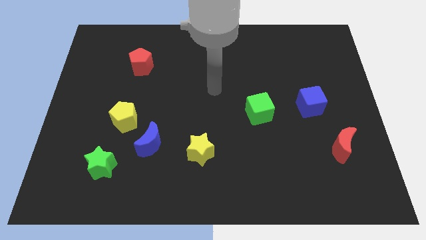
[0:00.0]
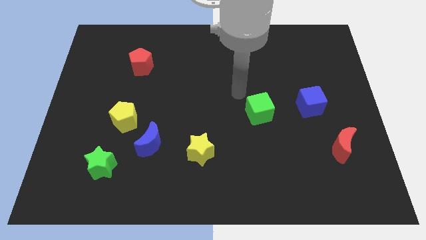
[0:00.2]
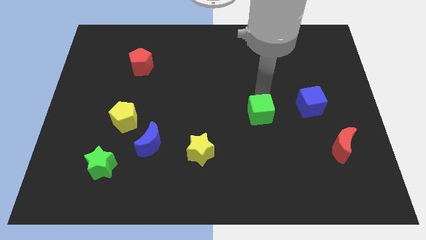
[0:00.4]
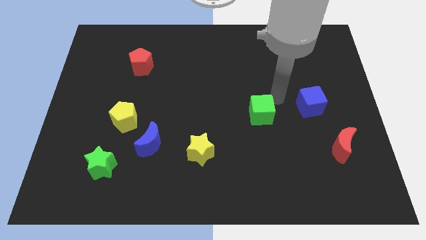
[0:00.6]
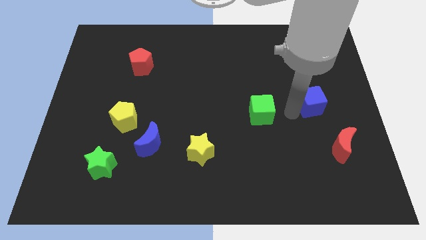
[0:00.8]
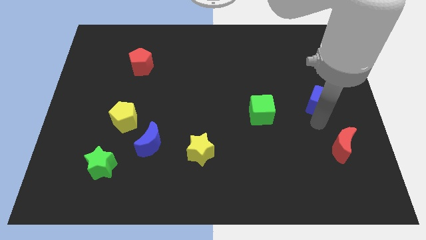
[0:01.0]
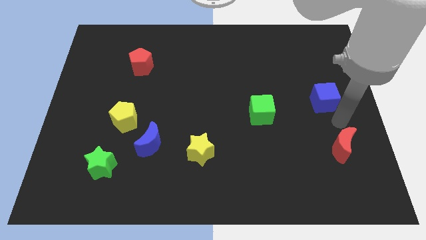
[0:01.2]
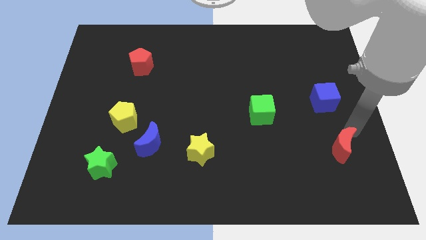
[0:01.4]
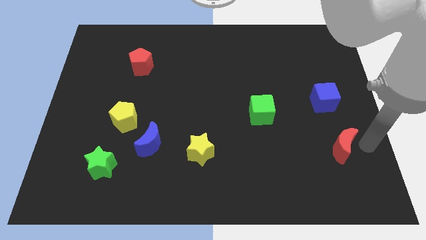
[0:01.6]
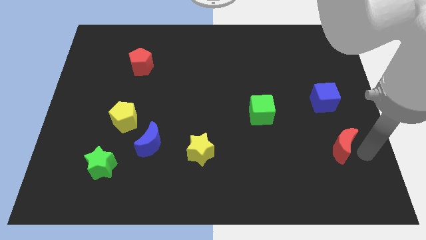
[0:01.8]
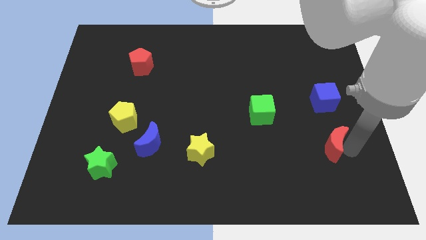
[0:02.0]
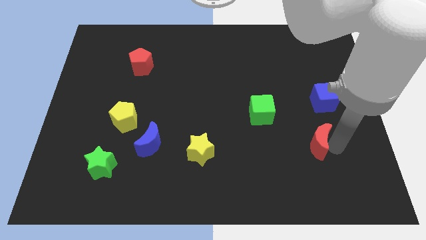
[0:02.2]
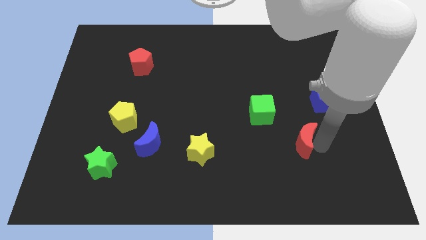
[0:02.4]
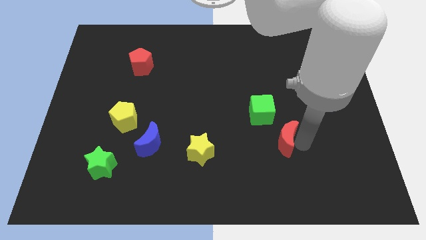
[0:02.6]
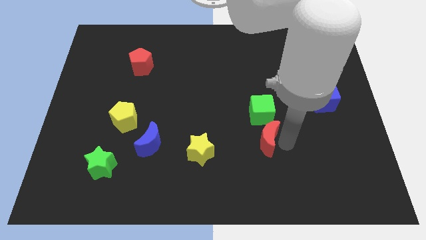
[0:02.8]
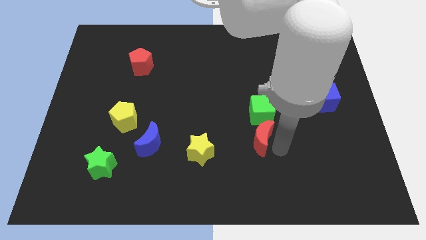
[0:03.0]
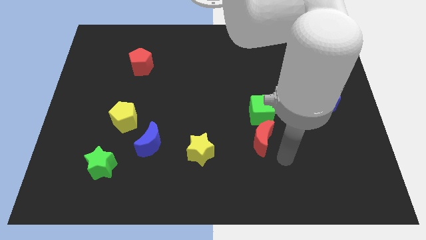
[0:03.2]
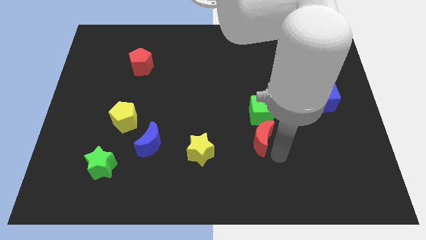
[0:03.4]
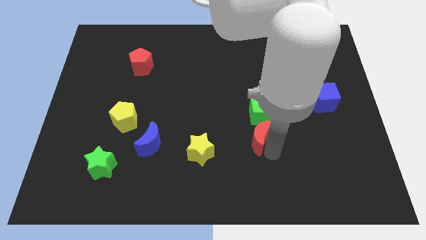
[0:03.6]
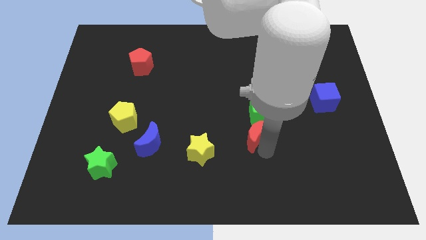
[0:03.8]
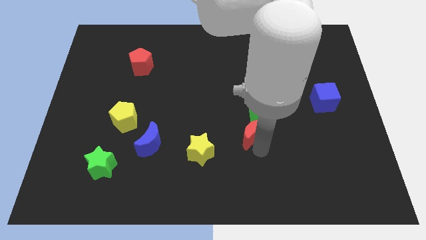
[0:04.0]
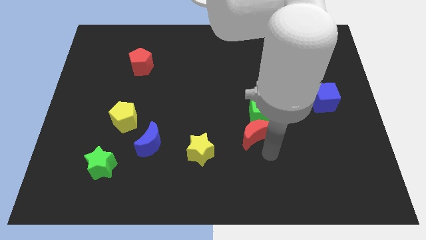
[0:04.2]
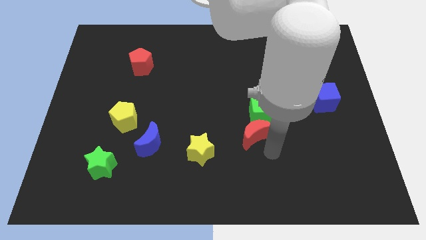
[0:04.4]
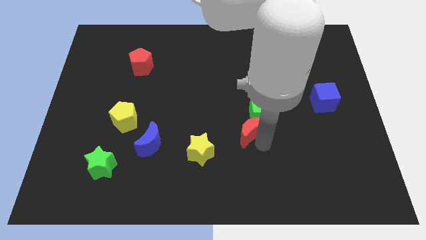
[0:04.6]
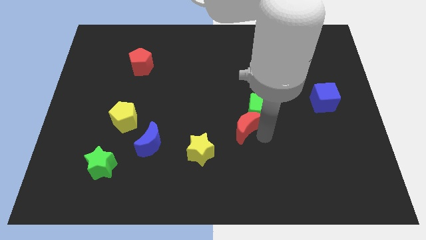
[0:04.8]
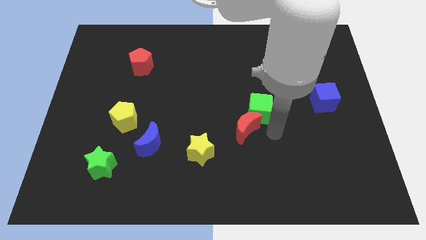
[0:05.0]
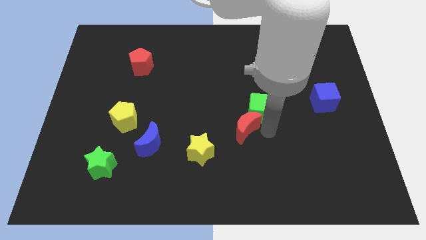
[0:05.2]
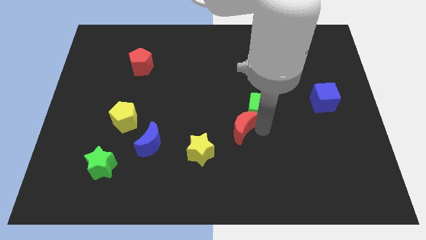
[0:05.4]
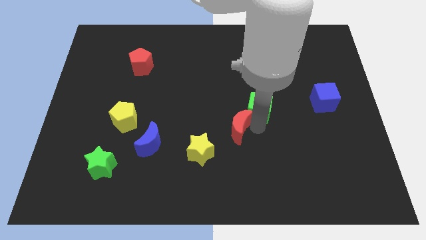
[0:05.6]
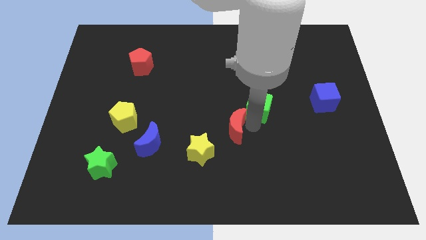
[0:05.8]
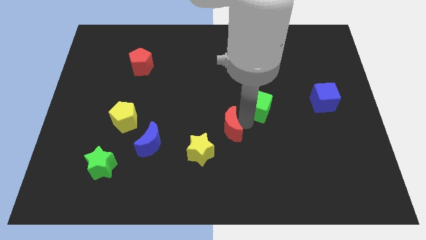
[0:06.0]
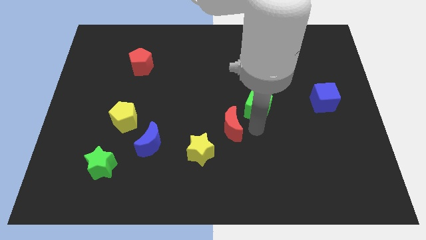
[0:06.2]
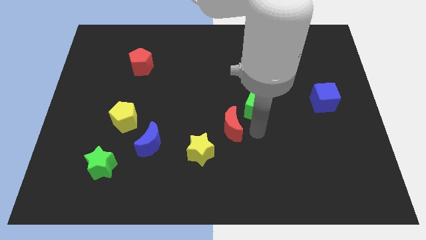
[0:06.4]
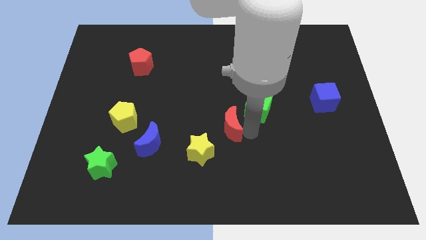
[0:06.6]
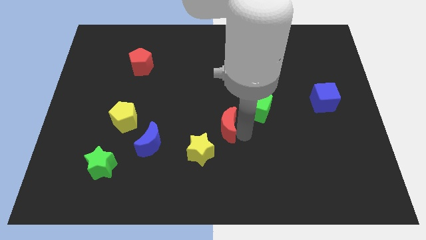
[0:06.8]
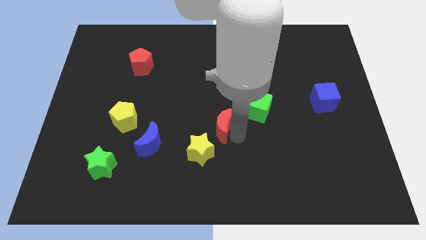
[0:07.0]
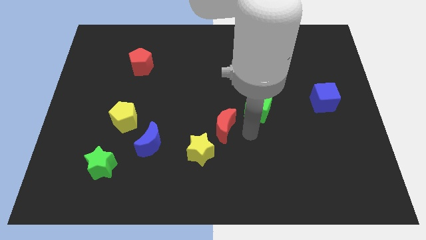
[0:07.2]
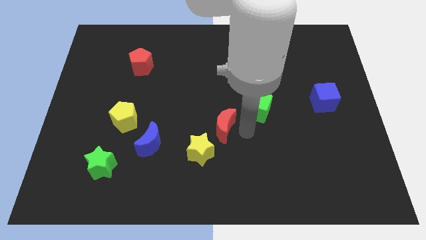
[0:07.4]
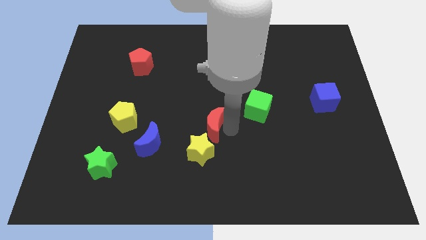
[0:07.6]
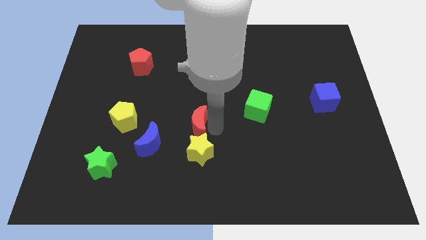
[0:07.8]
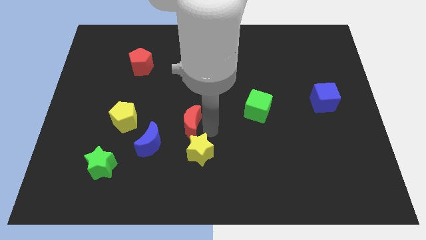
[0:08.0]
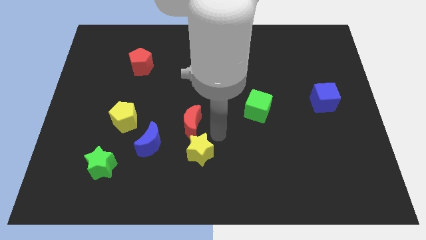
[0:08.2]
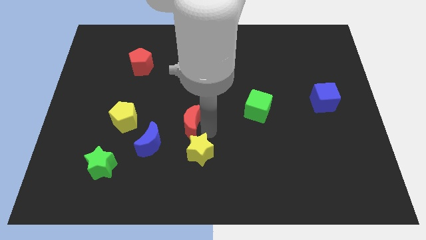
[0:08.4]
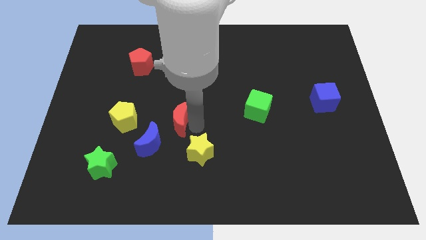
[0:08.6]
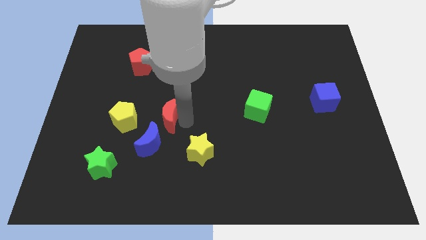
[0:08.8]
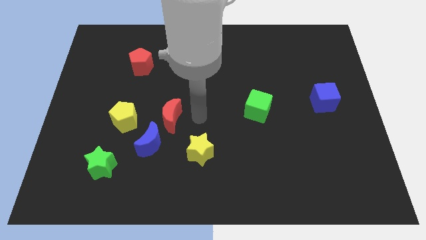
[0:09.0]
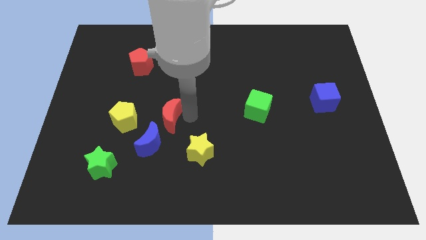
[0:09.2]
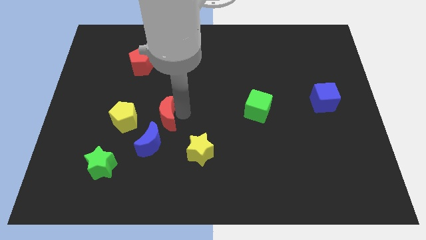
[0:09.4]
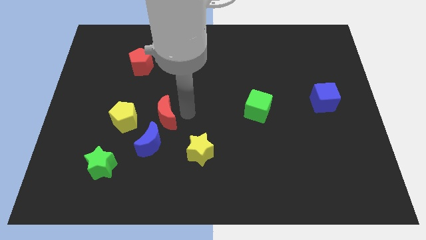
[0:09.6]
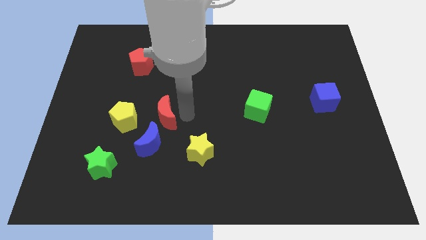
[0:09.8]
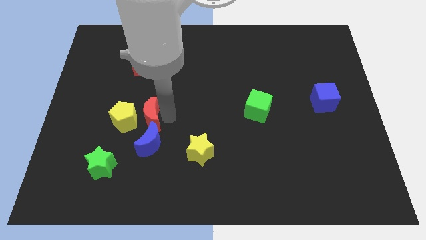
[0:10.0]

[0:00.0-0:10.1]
slide the red moon towards the yellow pentagon

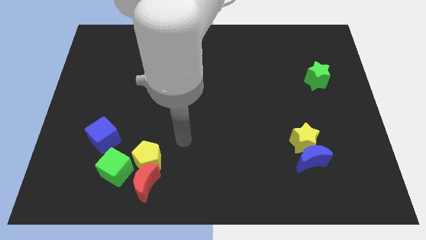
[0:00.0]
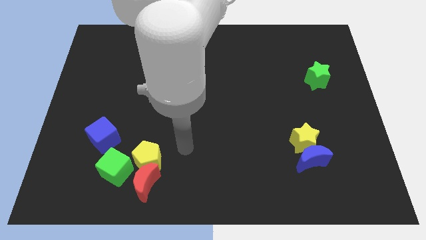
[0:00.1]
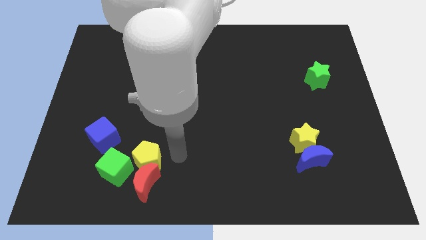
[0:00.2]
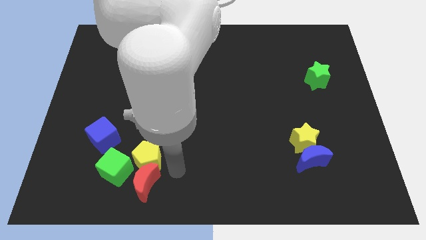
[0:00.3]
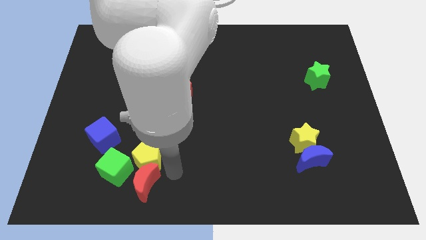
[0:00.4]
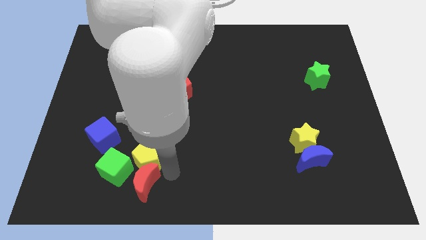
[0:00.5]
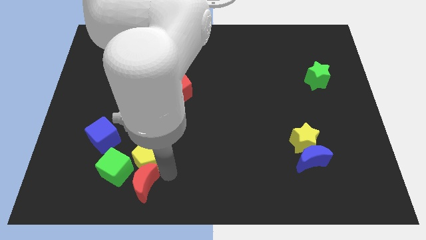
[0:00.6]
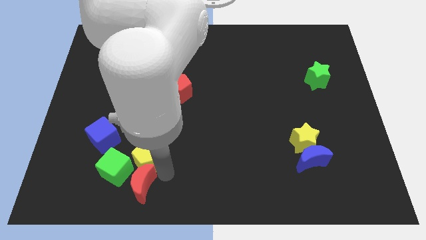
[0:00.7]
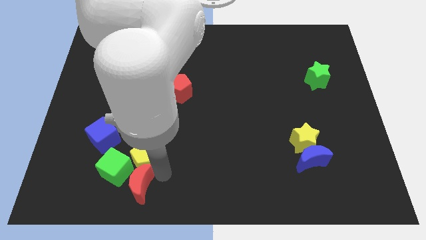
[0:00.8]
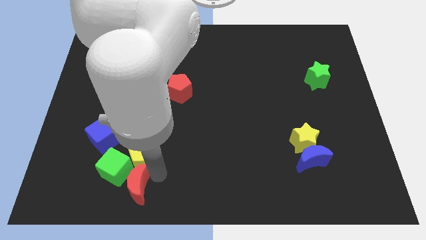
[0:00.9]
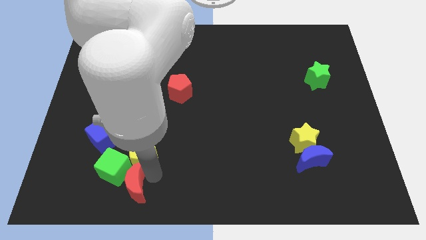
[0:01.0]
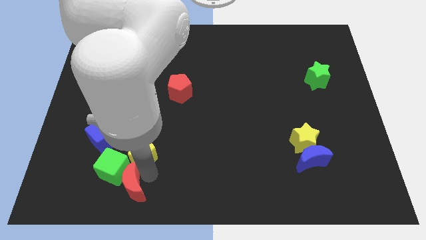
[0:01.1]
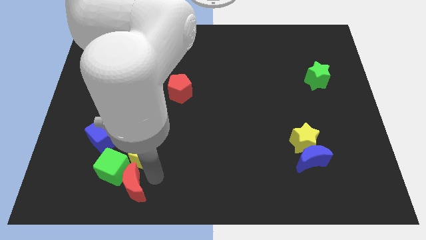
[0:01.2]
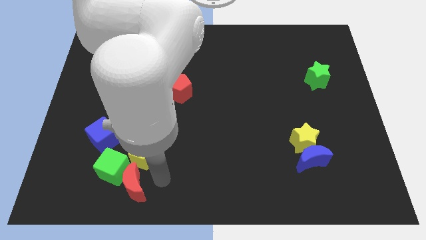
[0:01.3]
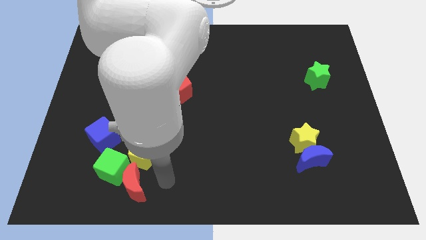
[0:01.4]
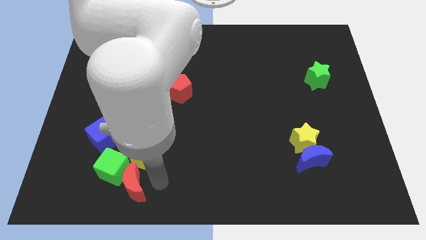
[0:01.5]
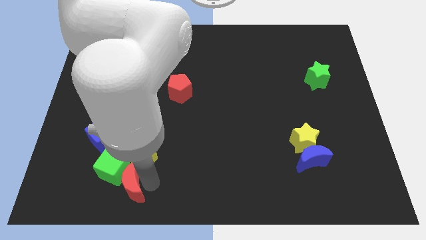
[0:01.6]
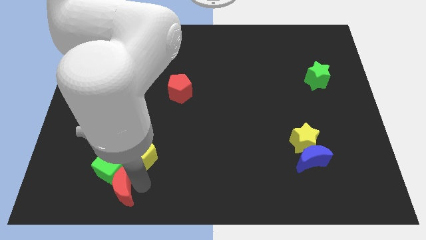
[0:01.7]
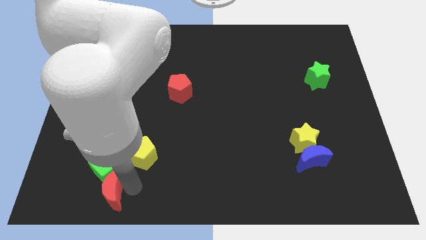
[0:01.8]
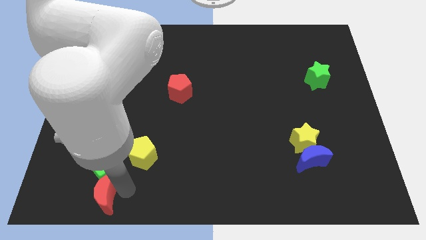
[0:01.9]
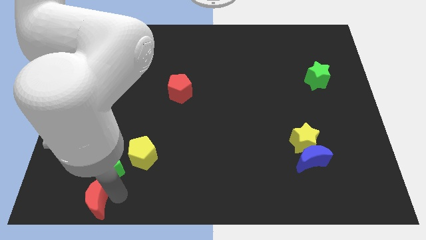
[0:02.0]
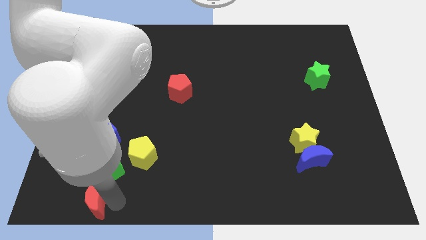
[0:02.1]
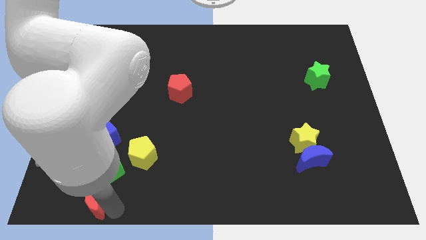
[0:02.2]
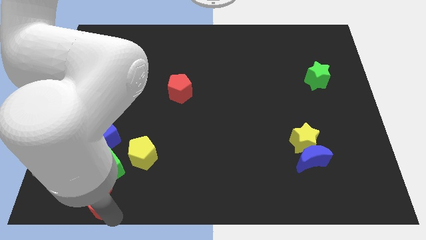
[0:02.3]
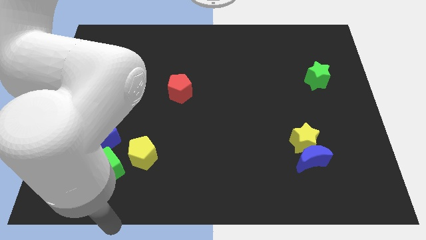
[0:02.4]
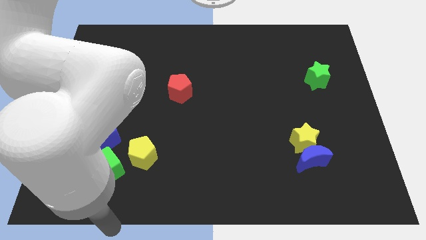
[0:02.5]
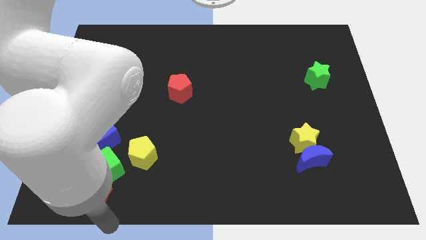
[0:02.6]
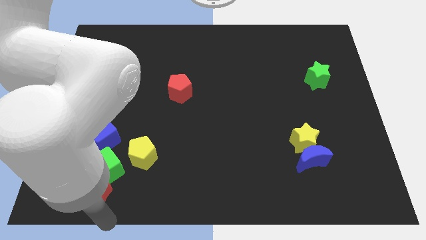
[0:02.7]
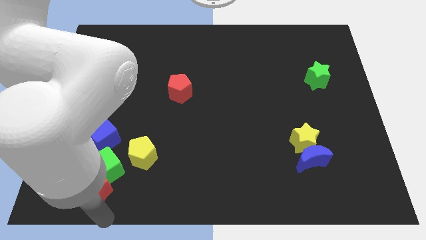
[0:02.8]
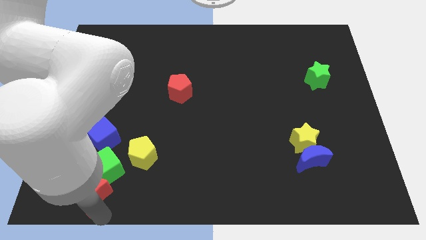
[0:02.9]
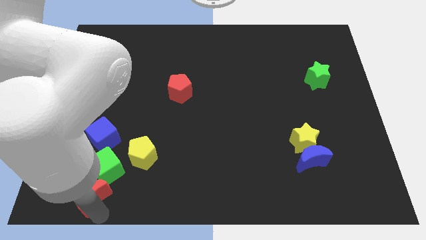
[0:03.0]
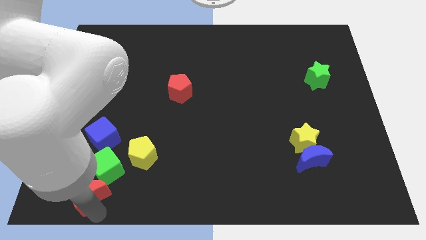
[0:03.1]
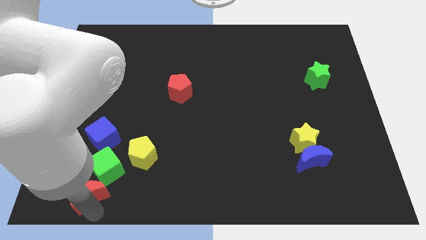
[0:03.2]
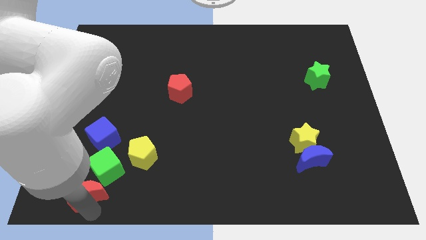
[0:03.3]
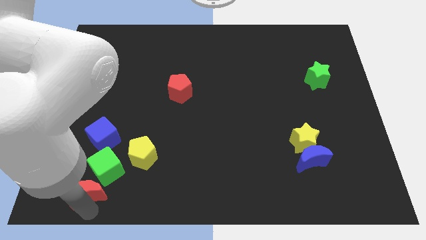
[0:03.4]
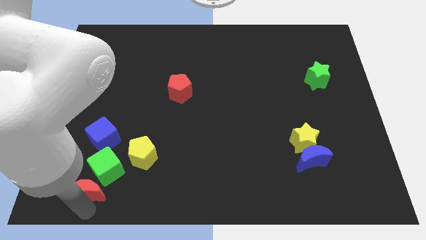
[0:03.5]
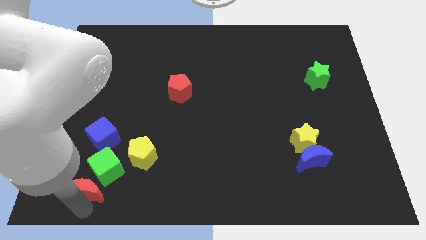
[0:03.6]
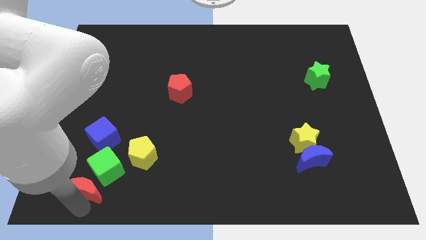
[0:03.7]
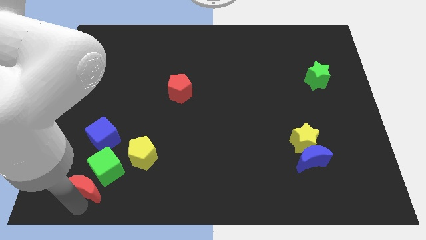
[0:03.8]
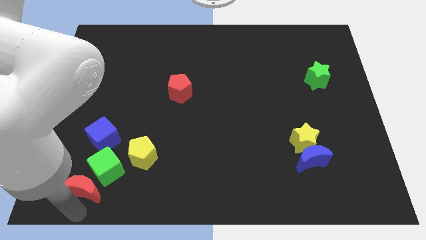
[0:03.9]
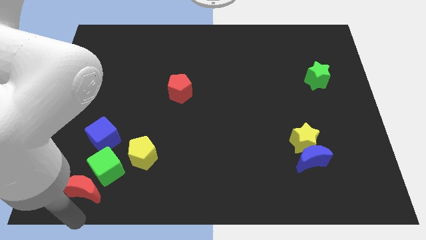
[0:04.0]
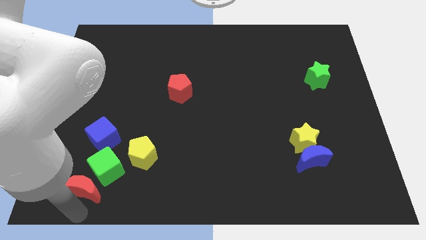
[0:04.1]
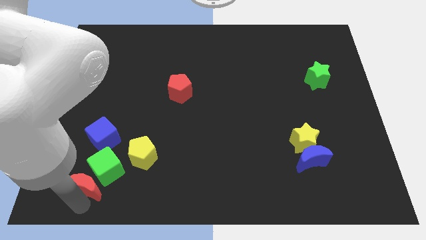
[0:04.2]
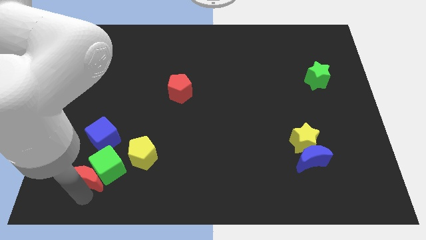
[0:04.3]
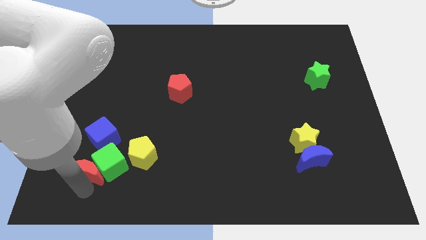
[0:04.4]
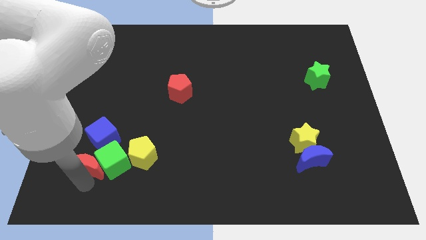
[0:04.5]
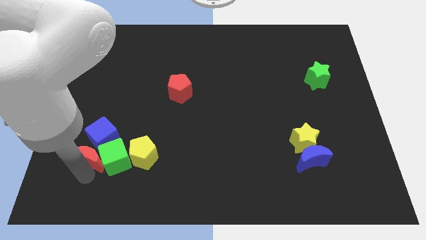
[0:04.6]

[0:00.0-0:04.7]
put the red moon to the blue cube
